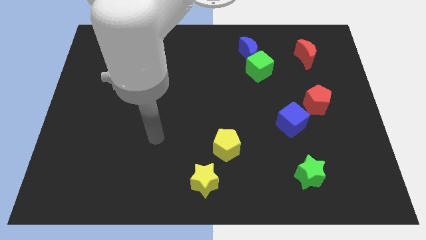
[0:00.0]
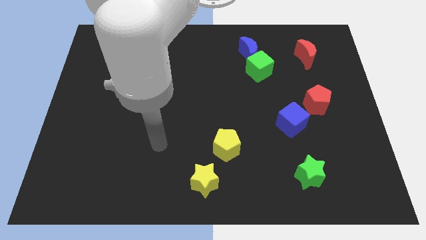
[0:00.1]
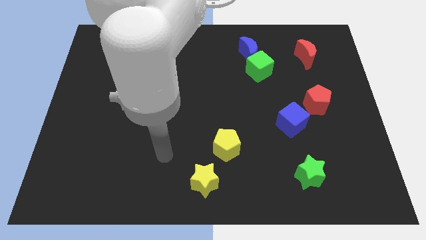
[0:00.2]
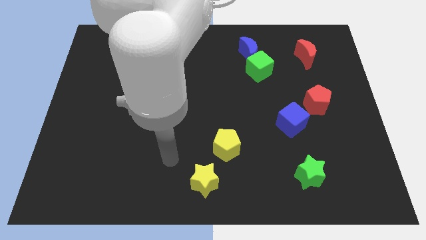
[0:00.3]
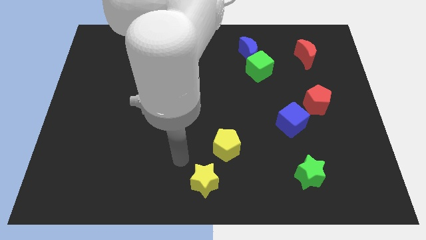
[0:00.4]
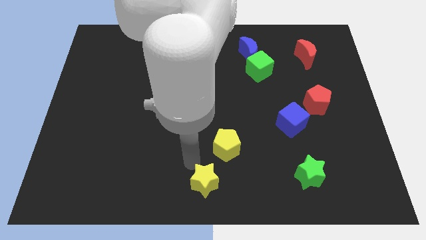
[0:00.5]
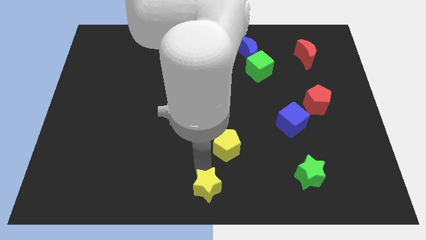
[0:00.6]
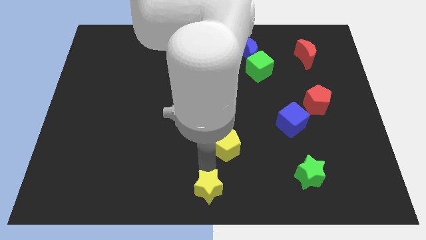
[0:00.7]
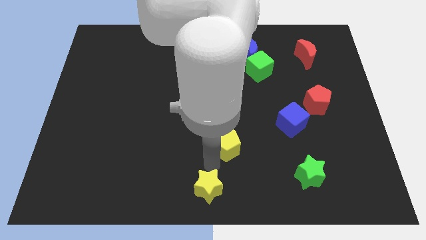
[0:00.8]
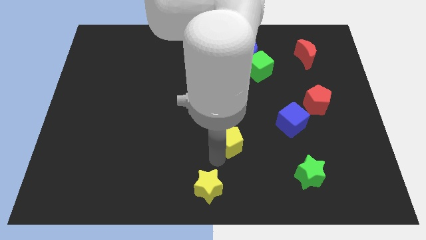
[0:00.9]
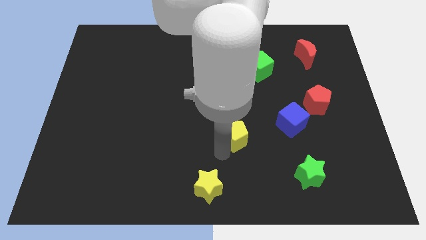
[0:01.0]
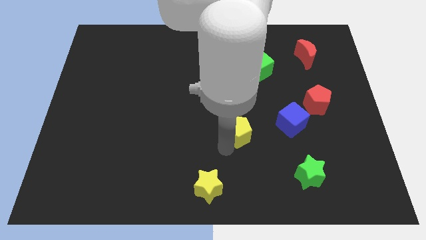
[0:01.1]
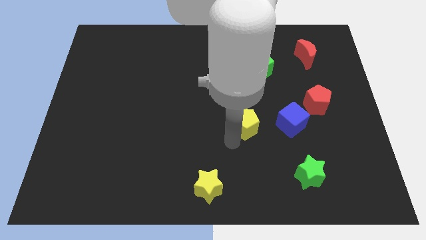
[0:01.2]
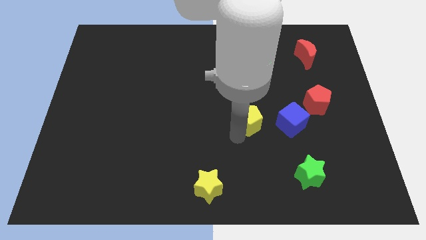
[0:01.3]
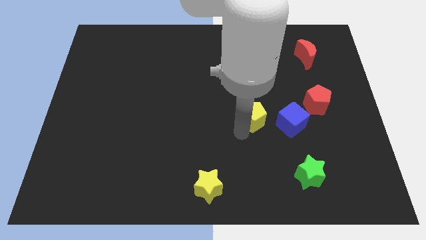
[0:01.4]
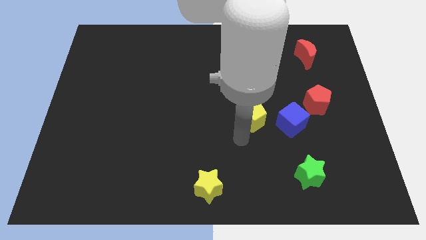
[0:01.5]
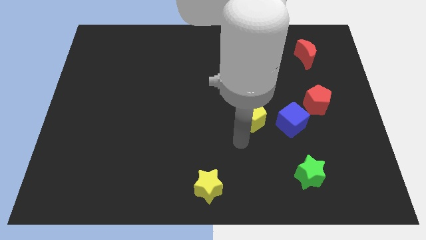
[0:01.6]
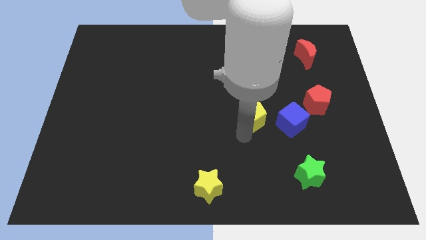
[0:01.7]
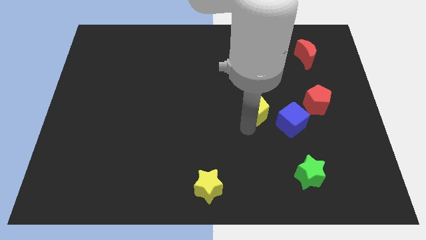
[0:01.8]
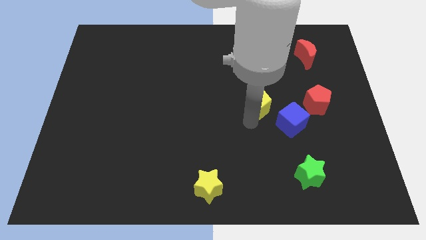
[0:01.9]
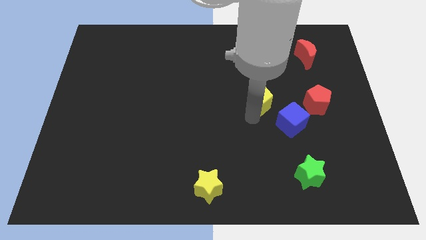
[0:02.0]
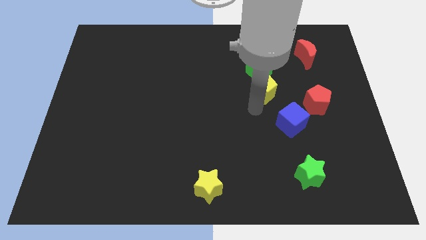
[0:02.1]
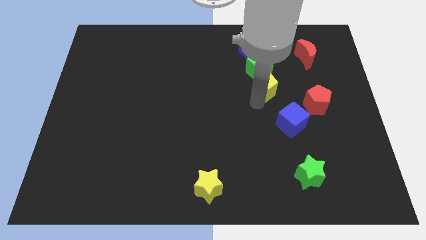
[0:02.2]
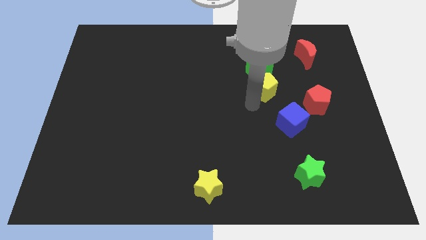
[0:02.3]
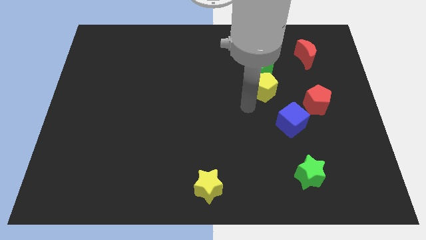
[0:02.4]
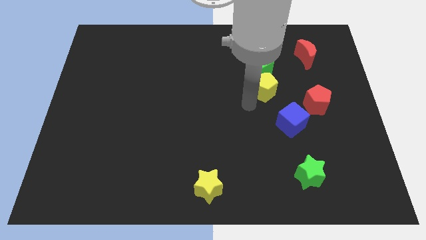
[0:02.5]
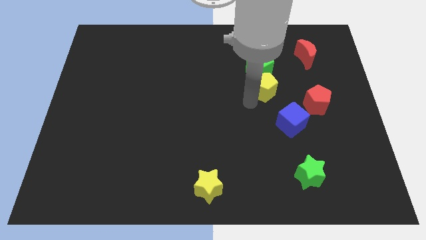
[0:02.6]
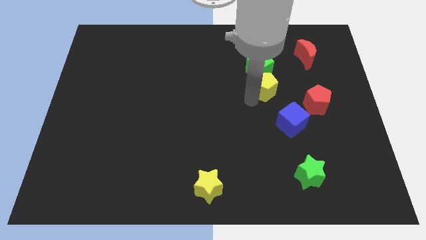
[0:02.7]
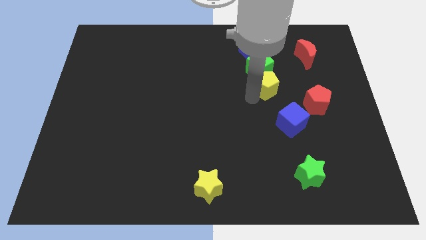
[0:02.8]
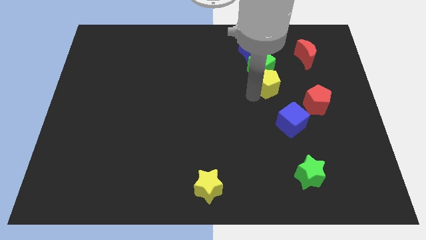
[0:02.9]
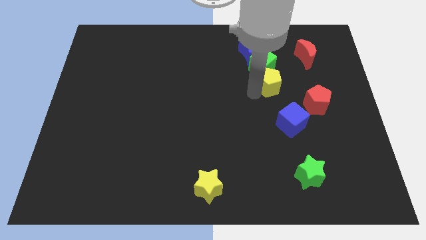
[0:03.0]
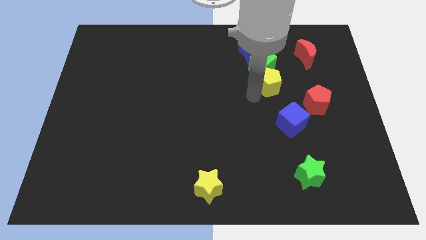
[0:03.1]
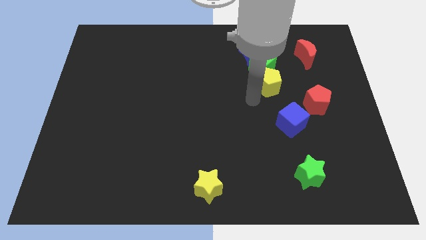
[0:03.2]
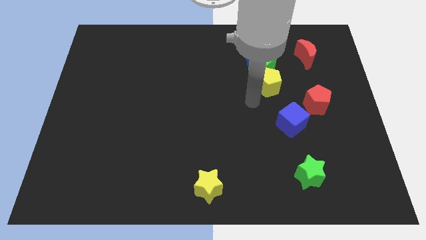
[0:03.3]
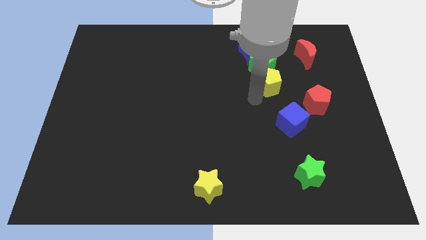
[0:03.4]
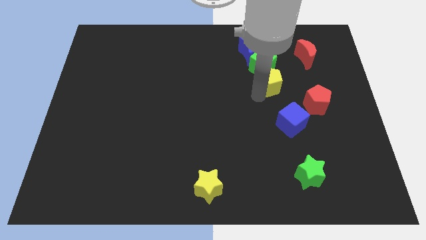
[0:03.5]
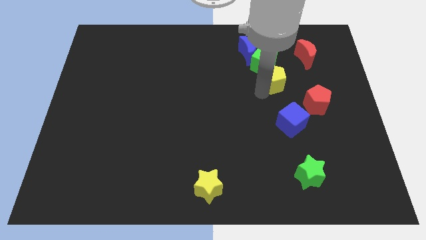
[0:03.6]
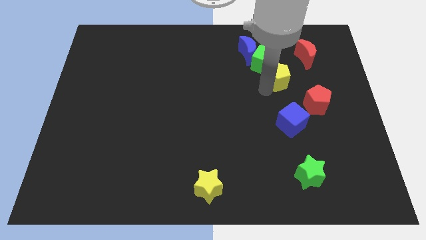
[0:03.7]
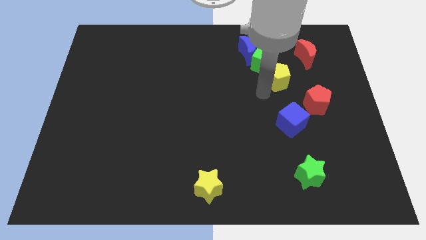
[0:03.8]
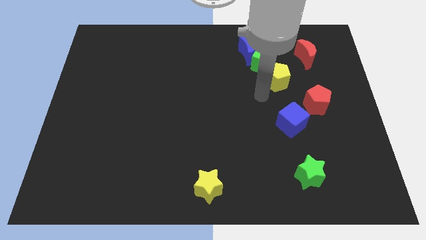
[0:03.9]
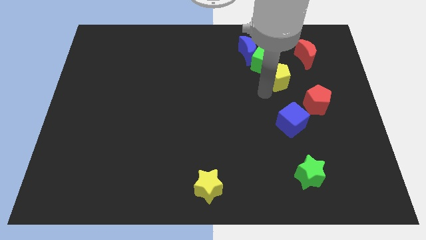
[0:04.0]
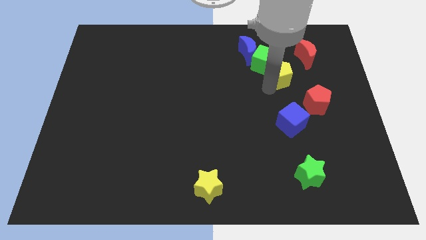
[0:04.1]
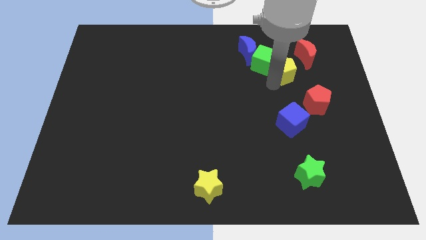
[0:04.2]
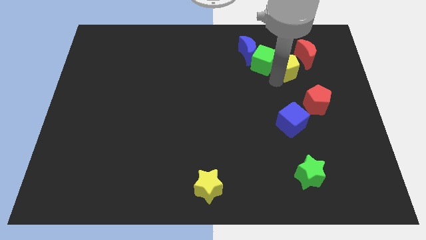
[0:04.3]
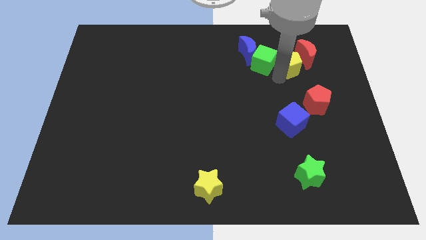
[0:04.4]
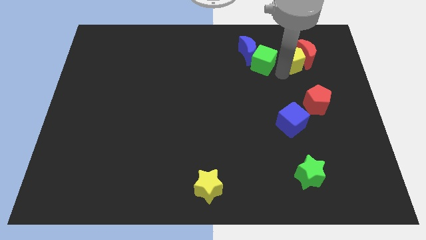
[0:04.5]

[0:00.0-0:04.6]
slide the yellow pentagon next to the red moon

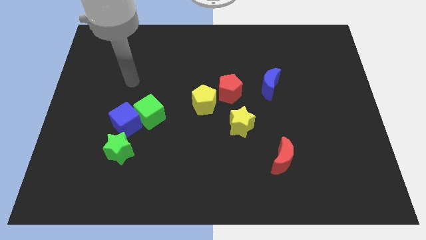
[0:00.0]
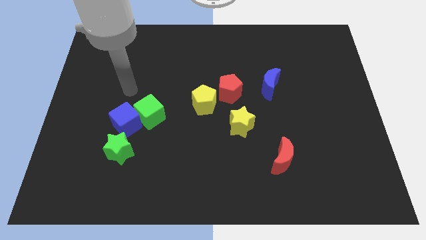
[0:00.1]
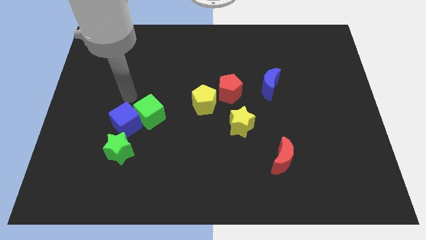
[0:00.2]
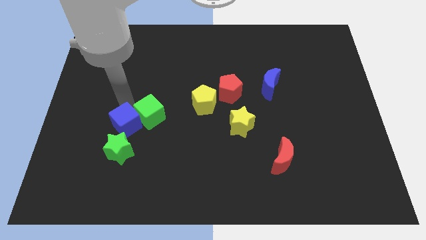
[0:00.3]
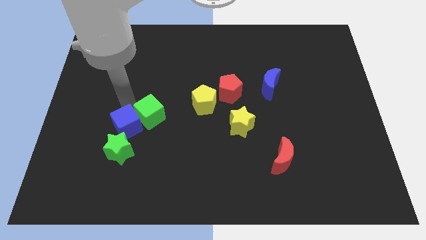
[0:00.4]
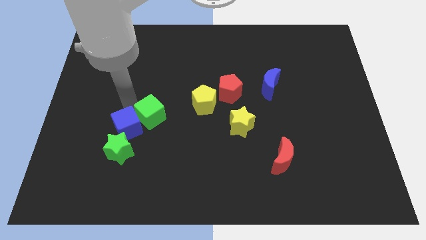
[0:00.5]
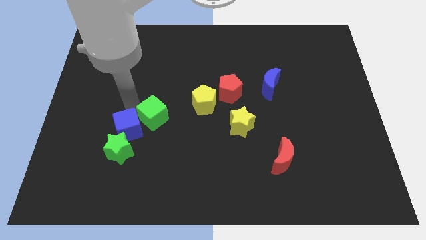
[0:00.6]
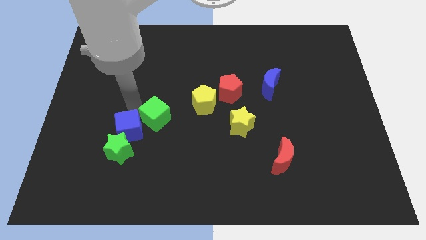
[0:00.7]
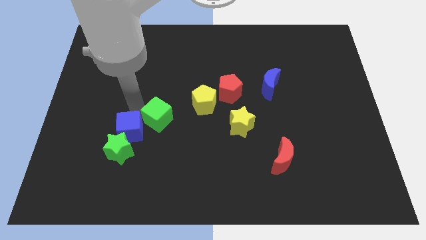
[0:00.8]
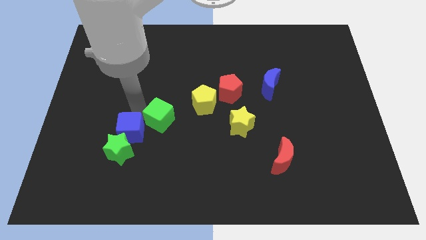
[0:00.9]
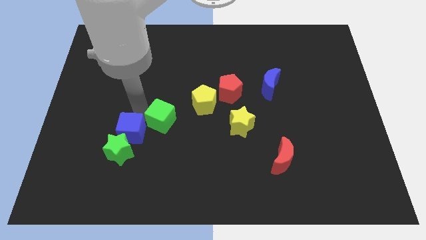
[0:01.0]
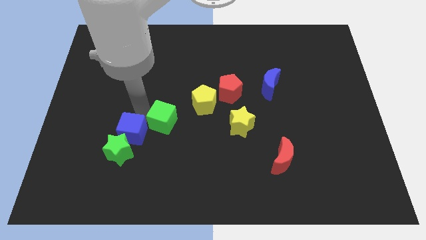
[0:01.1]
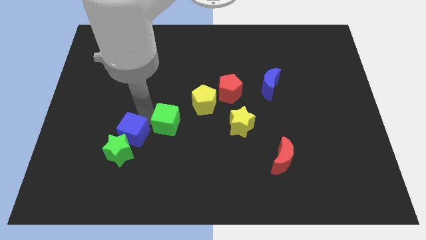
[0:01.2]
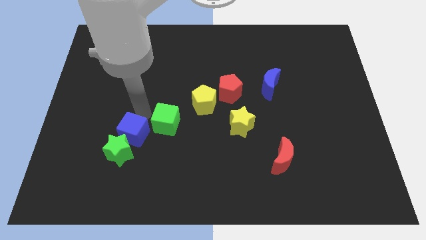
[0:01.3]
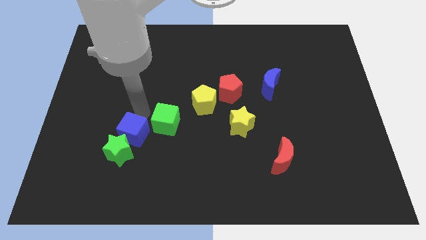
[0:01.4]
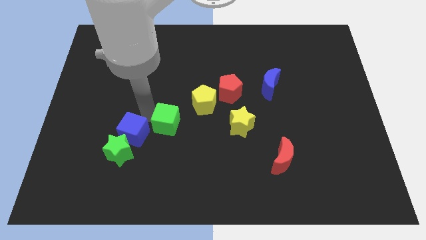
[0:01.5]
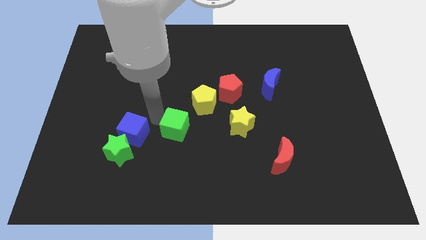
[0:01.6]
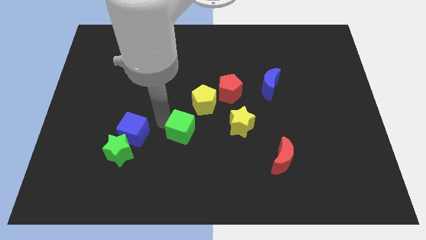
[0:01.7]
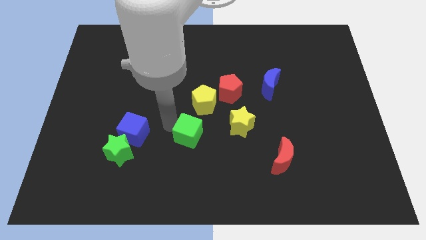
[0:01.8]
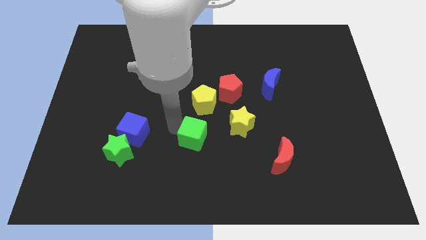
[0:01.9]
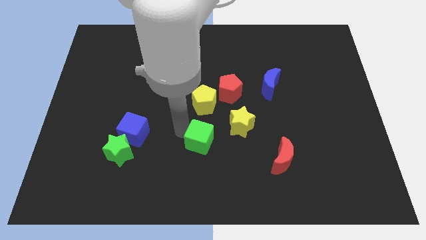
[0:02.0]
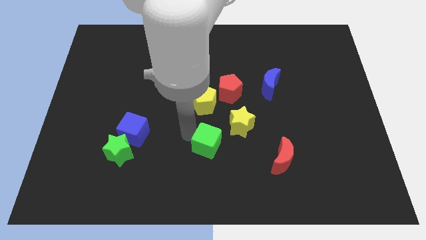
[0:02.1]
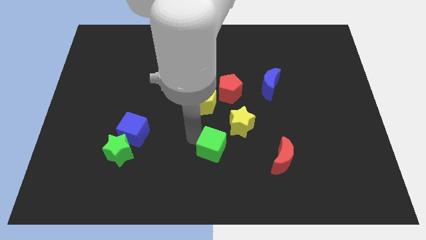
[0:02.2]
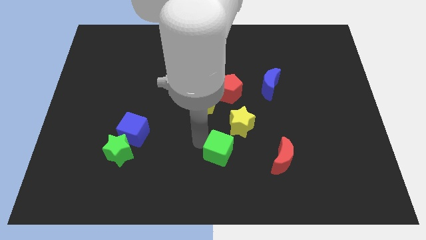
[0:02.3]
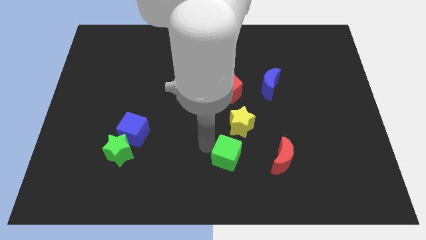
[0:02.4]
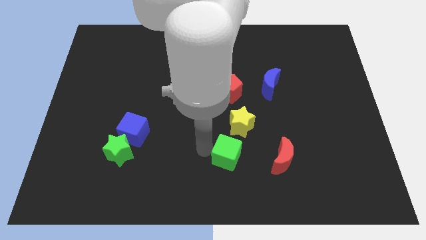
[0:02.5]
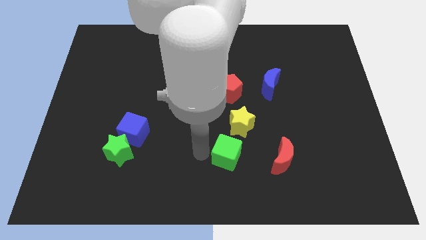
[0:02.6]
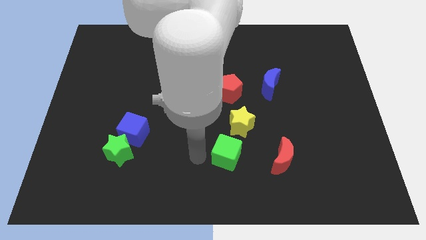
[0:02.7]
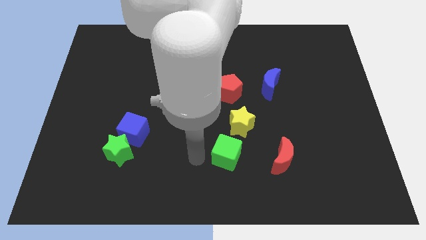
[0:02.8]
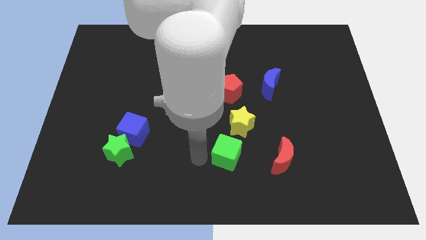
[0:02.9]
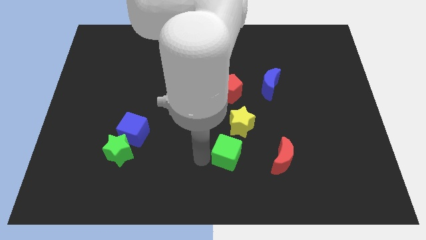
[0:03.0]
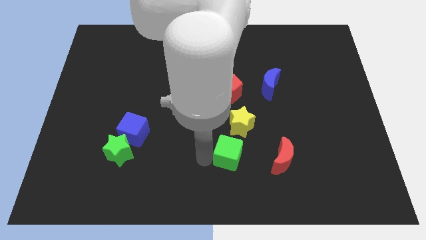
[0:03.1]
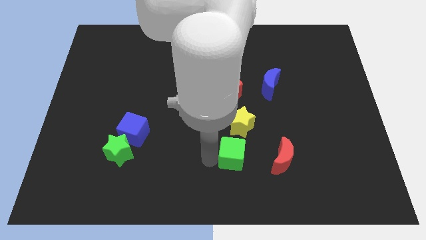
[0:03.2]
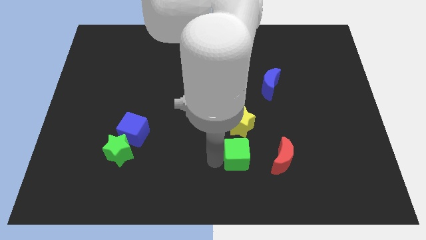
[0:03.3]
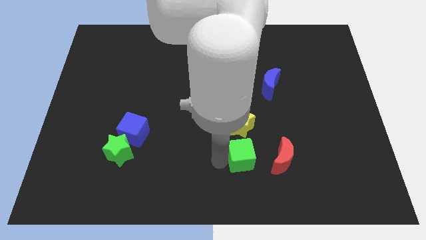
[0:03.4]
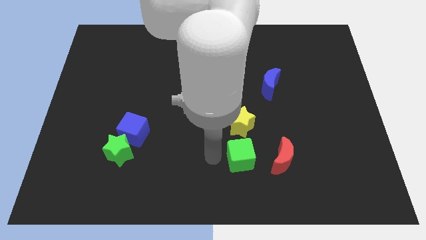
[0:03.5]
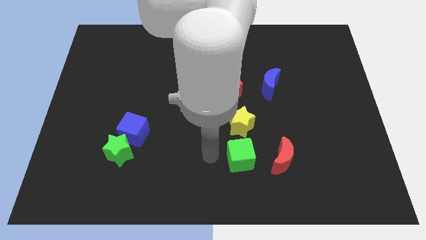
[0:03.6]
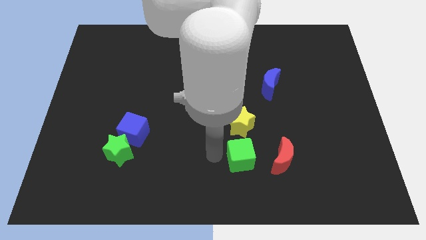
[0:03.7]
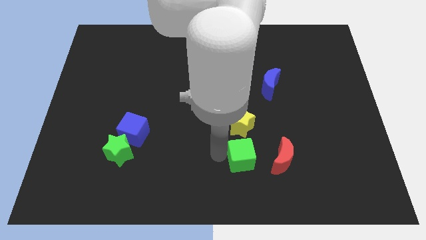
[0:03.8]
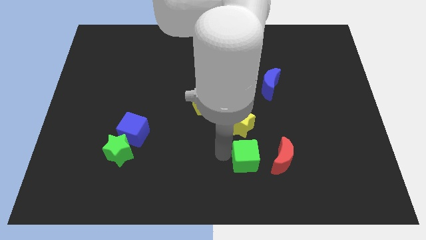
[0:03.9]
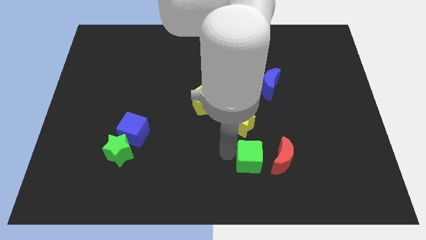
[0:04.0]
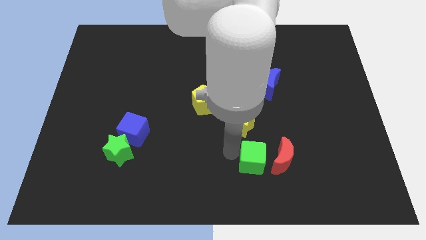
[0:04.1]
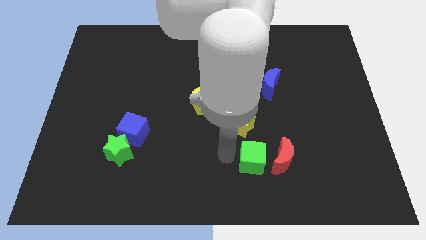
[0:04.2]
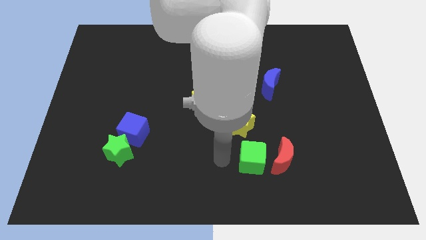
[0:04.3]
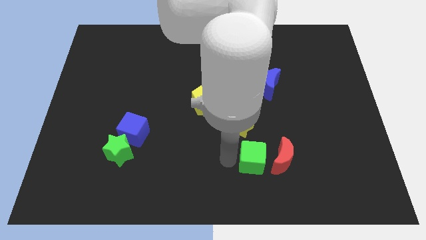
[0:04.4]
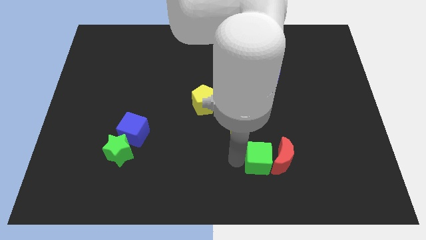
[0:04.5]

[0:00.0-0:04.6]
put the green cube next to the red moon
